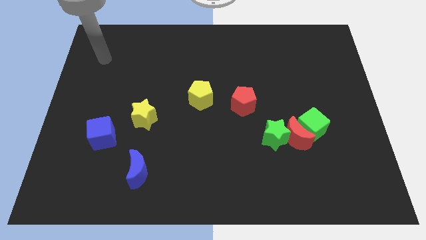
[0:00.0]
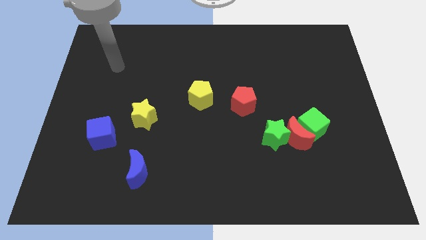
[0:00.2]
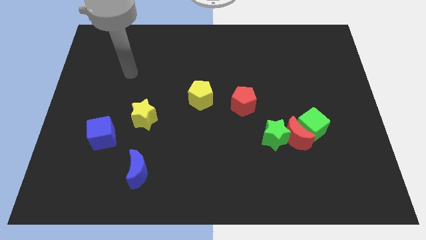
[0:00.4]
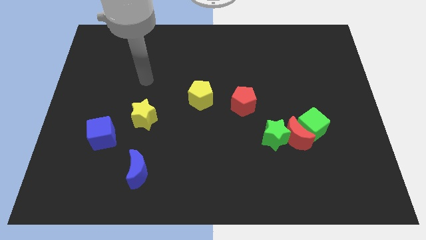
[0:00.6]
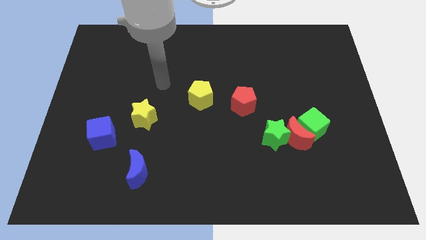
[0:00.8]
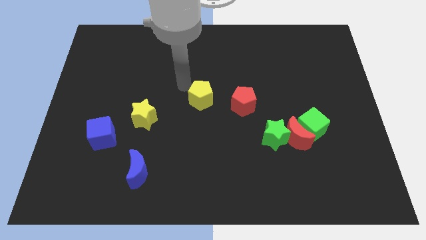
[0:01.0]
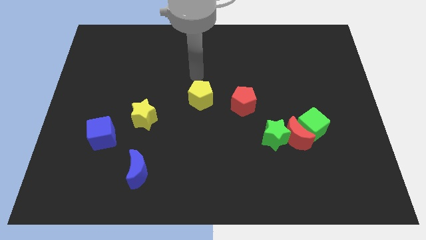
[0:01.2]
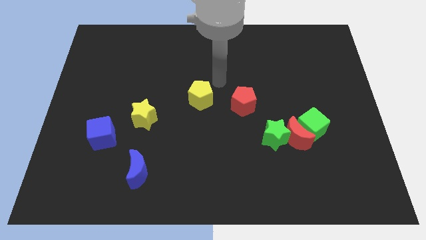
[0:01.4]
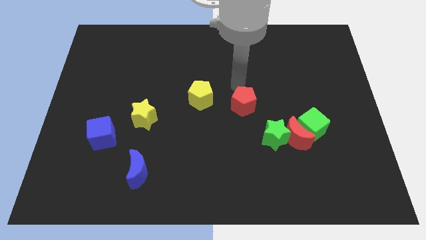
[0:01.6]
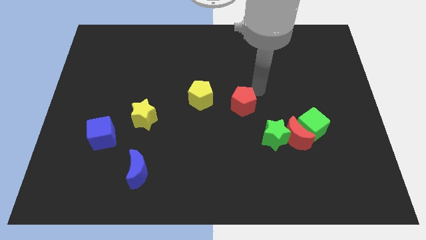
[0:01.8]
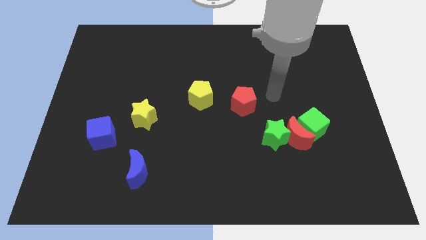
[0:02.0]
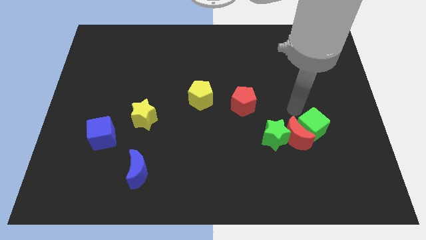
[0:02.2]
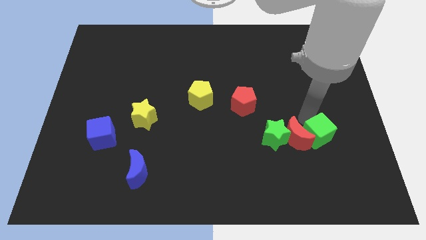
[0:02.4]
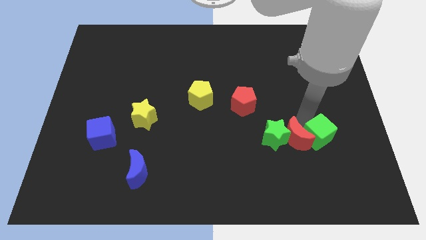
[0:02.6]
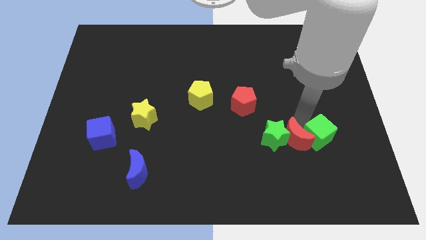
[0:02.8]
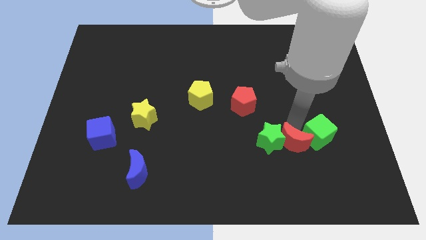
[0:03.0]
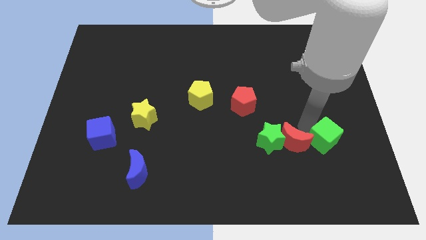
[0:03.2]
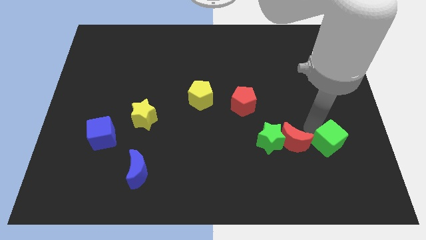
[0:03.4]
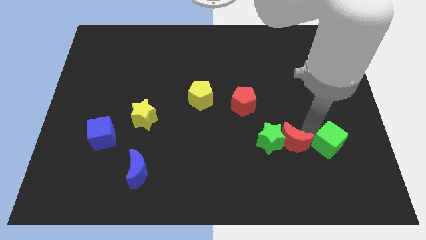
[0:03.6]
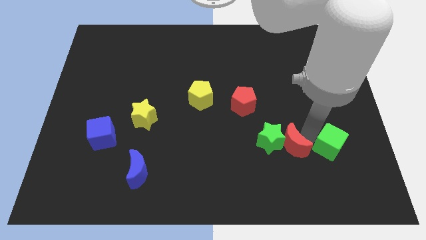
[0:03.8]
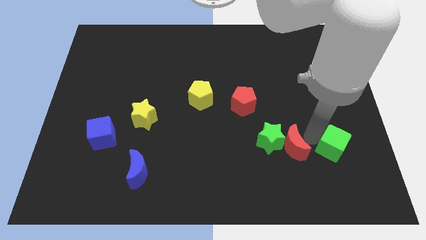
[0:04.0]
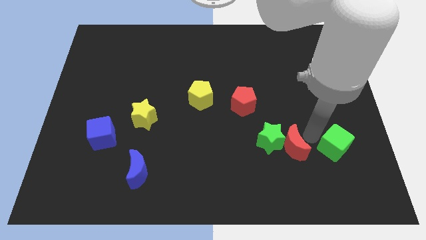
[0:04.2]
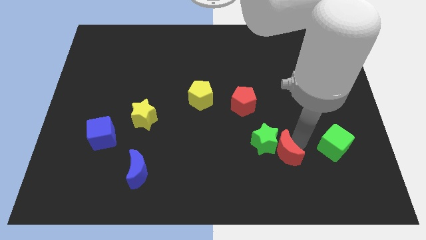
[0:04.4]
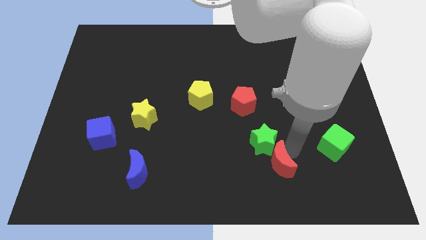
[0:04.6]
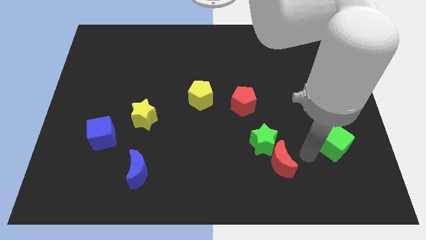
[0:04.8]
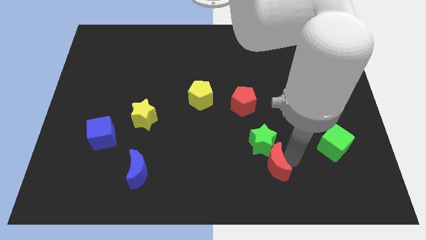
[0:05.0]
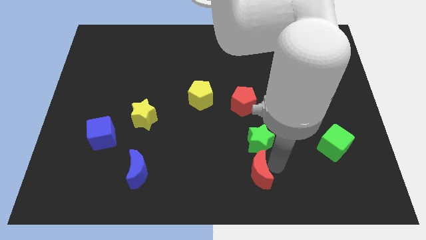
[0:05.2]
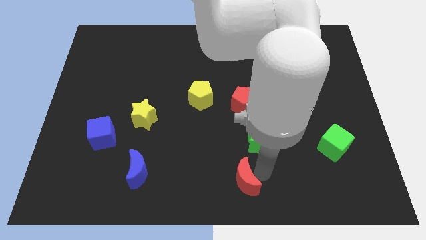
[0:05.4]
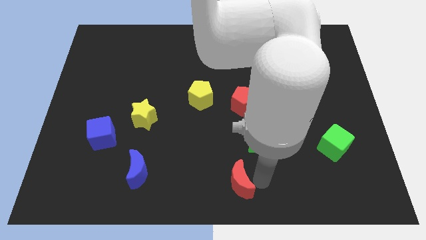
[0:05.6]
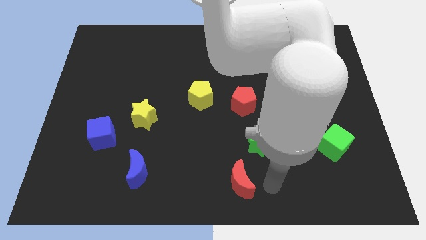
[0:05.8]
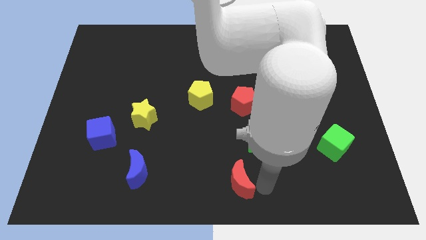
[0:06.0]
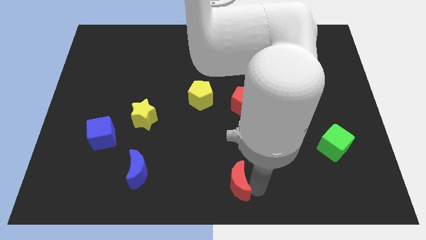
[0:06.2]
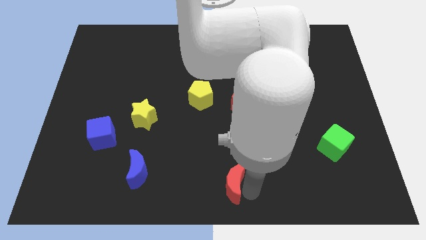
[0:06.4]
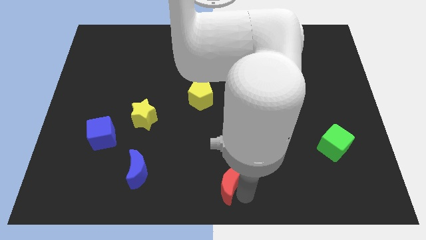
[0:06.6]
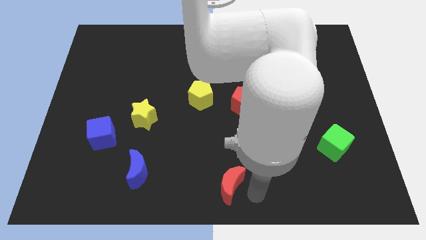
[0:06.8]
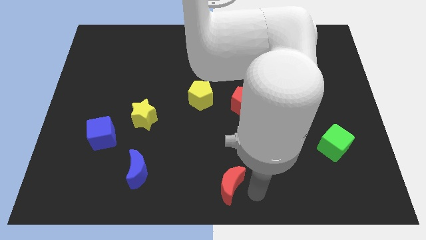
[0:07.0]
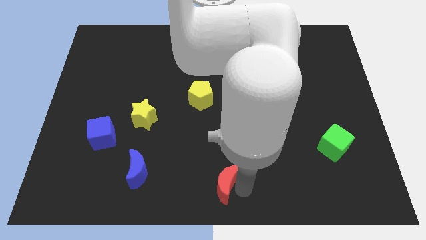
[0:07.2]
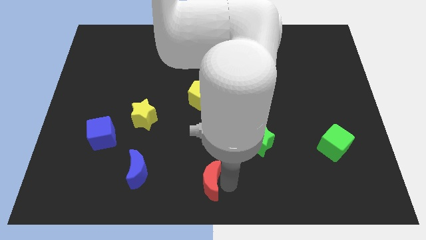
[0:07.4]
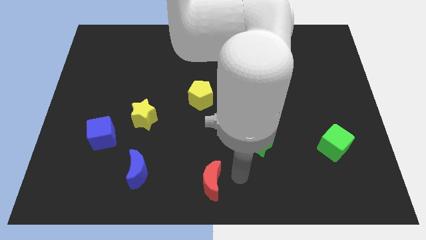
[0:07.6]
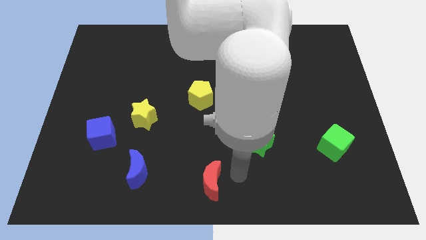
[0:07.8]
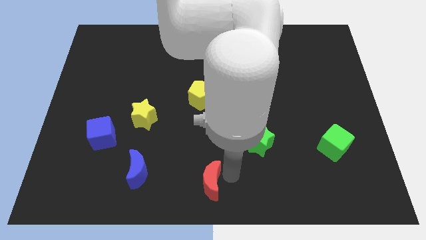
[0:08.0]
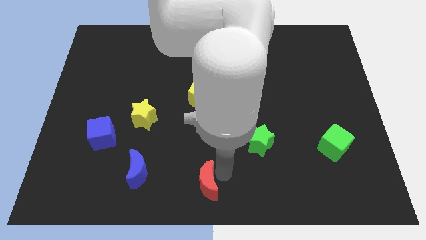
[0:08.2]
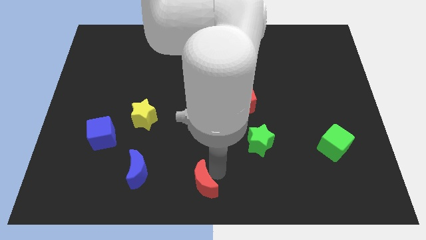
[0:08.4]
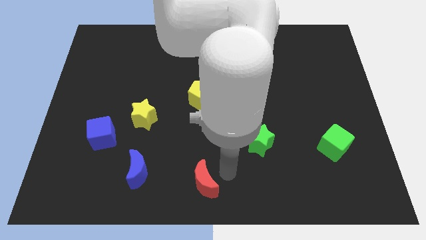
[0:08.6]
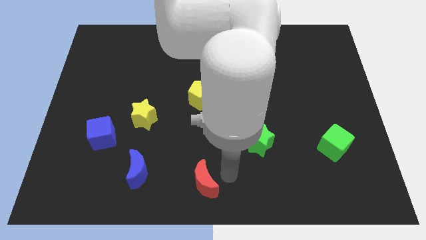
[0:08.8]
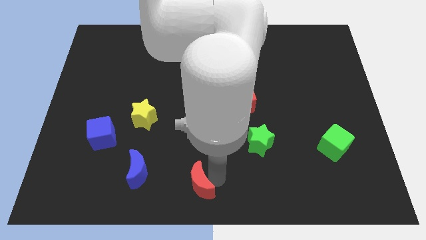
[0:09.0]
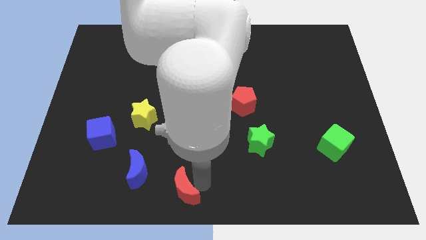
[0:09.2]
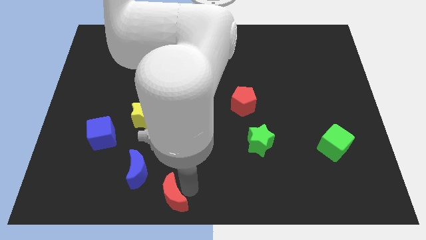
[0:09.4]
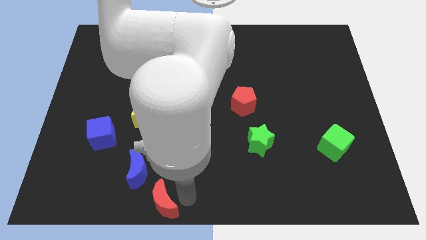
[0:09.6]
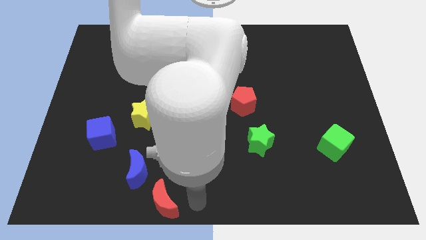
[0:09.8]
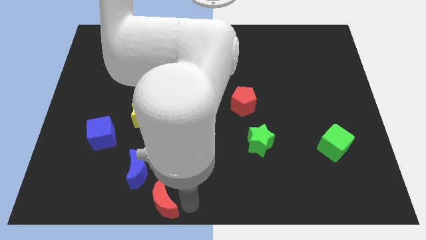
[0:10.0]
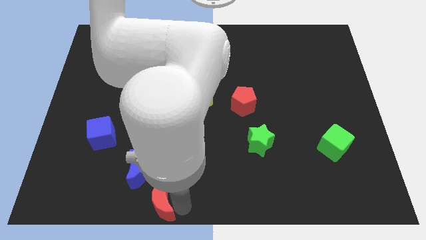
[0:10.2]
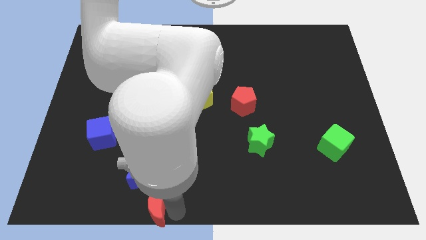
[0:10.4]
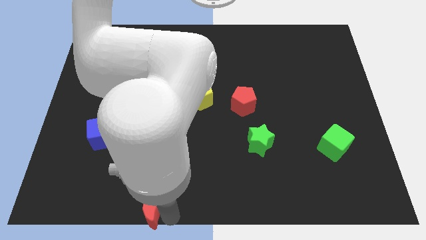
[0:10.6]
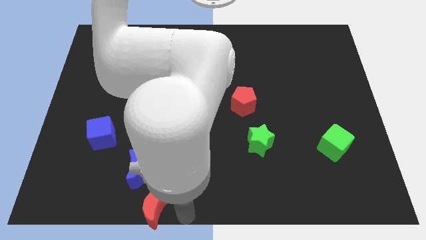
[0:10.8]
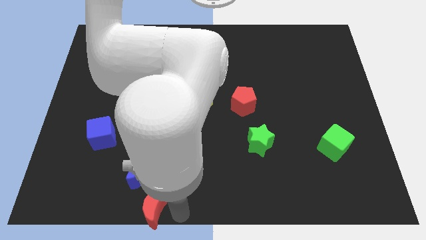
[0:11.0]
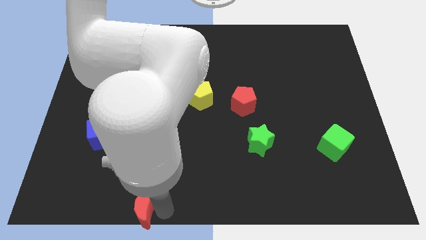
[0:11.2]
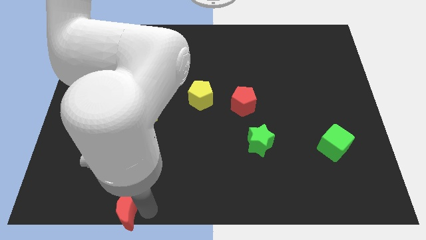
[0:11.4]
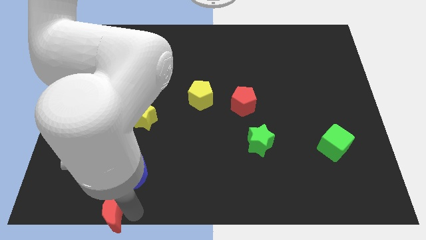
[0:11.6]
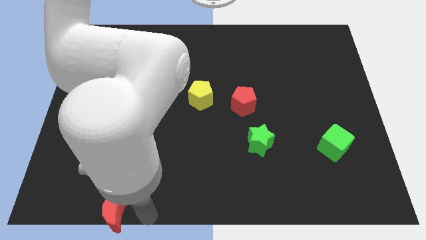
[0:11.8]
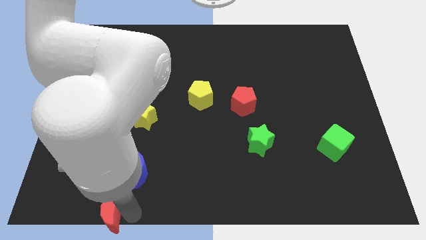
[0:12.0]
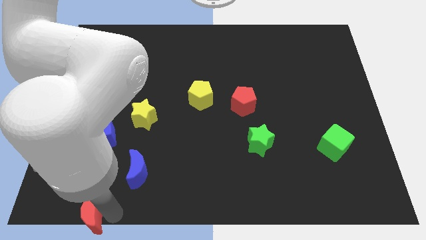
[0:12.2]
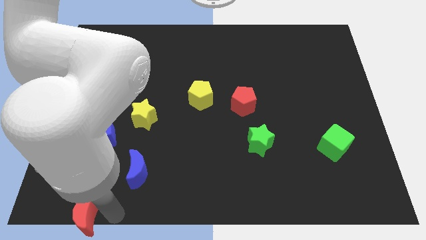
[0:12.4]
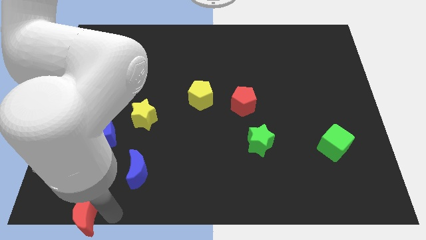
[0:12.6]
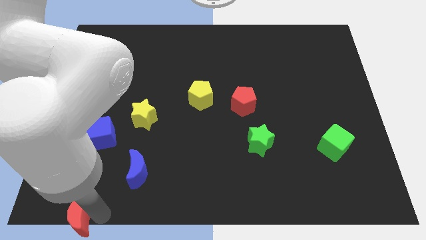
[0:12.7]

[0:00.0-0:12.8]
put the red moon to the lower left corner
